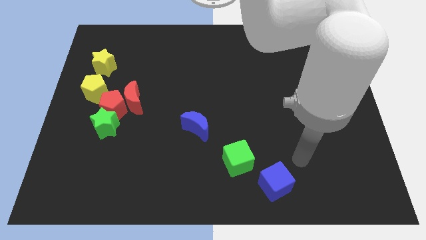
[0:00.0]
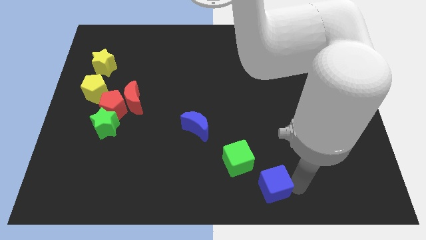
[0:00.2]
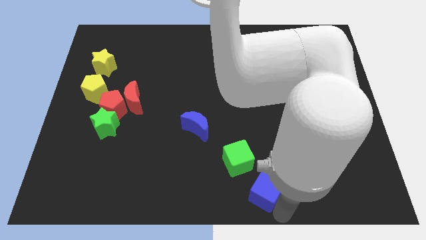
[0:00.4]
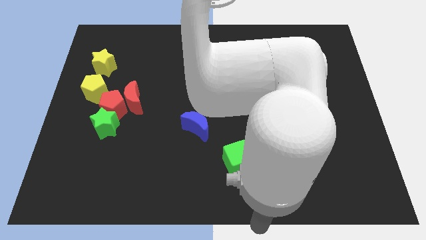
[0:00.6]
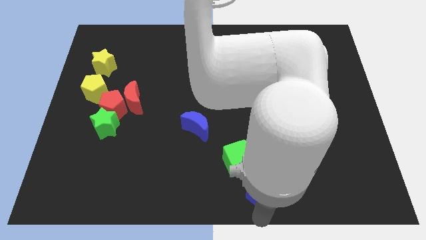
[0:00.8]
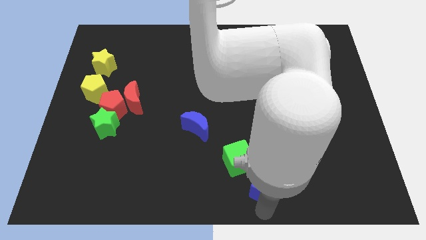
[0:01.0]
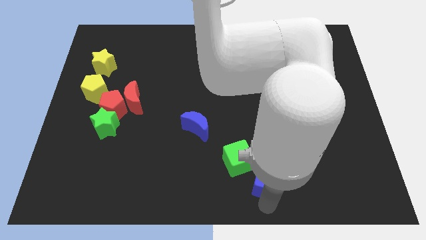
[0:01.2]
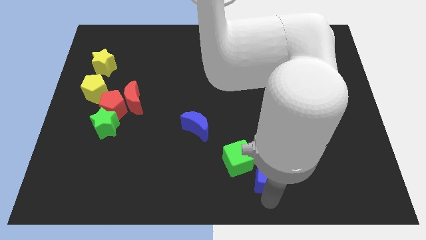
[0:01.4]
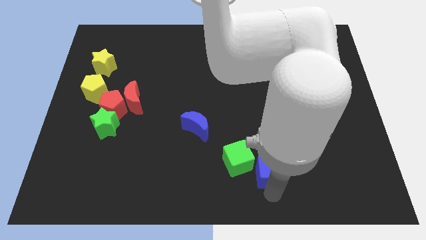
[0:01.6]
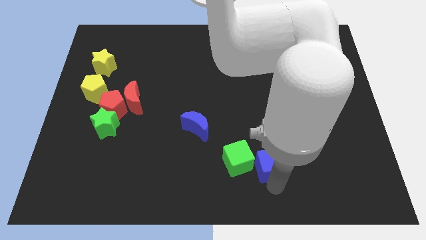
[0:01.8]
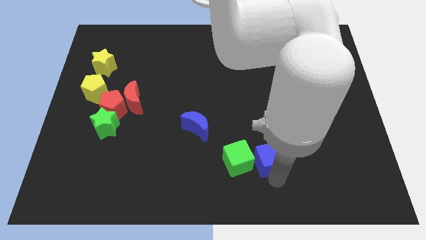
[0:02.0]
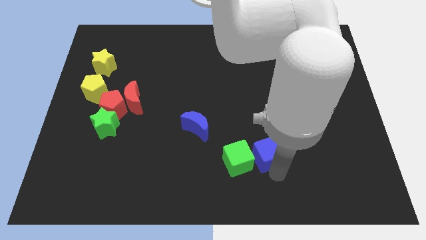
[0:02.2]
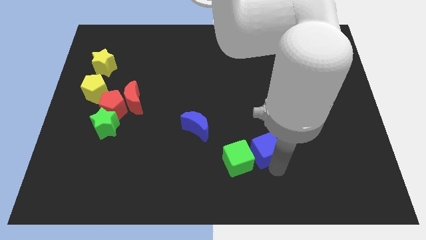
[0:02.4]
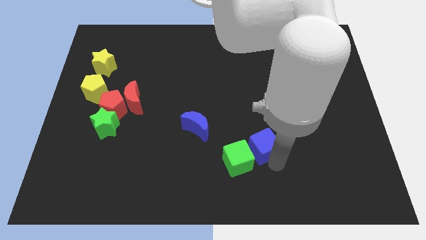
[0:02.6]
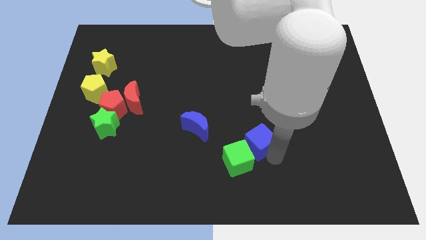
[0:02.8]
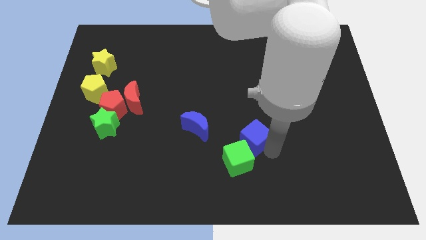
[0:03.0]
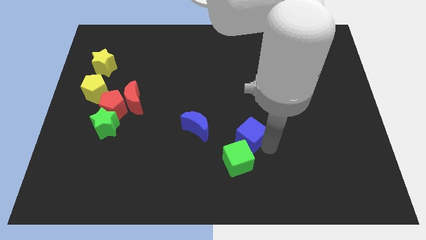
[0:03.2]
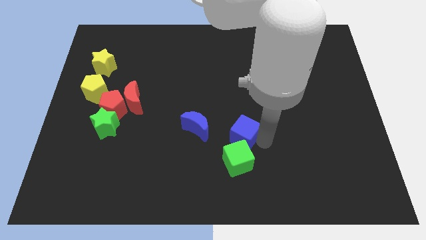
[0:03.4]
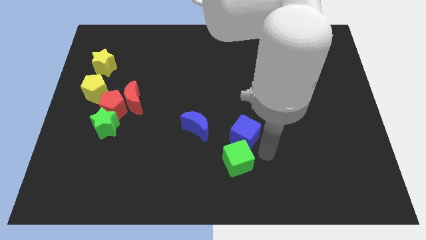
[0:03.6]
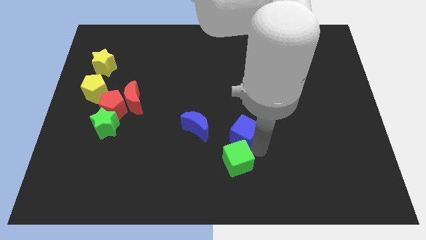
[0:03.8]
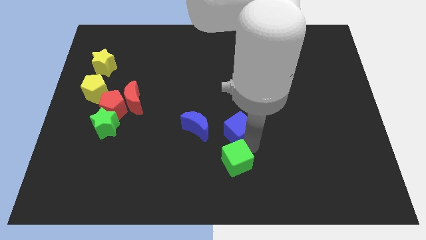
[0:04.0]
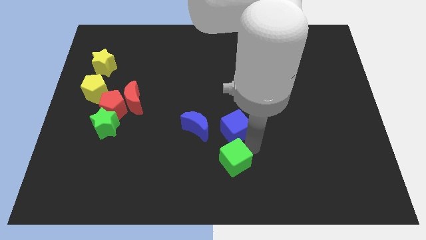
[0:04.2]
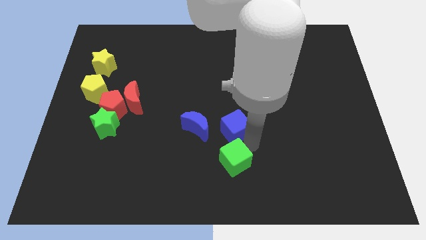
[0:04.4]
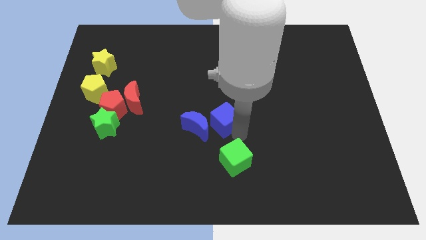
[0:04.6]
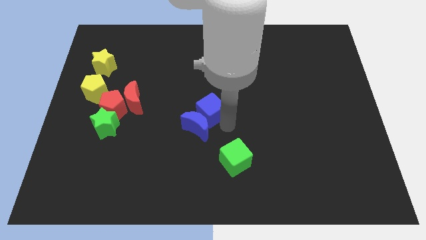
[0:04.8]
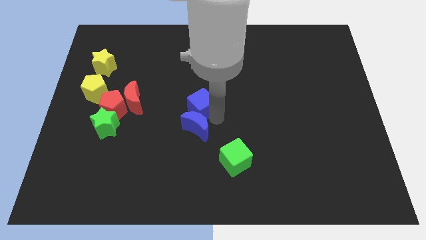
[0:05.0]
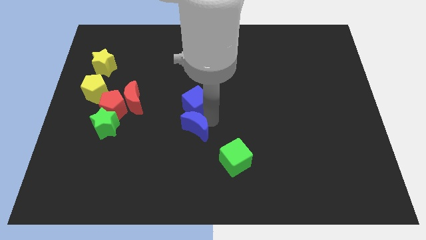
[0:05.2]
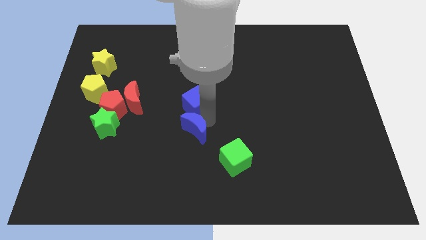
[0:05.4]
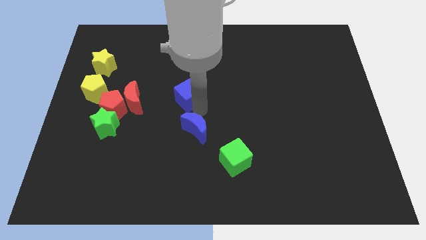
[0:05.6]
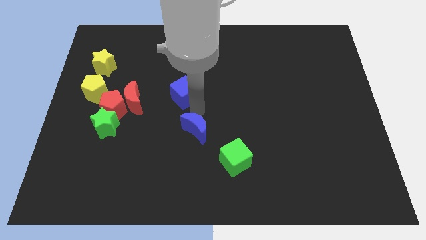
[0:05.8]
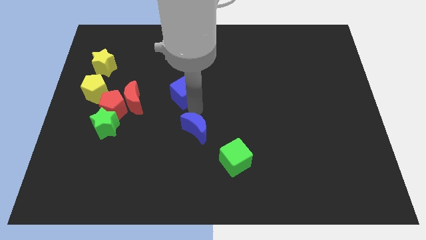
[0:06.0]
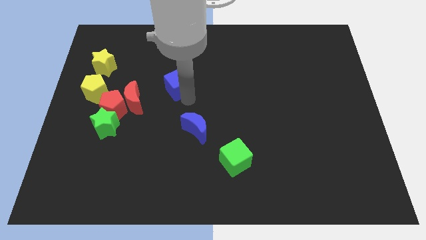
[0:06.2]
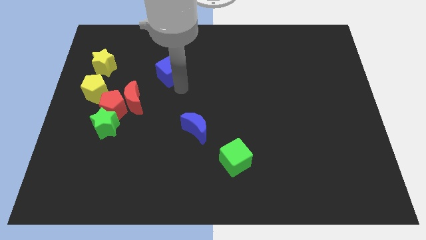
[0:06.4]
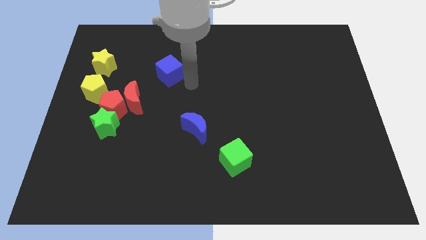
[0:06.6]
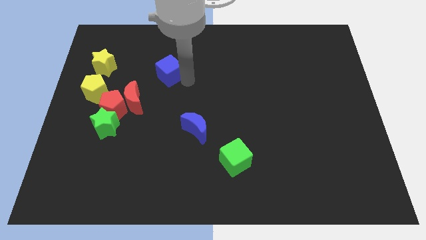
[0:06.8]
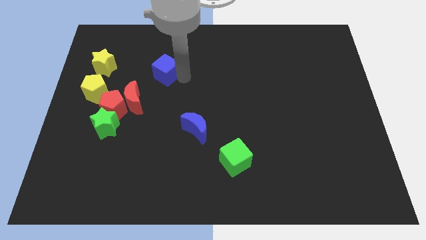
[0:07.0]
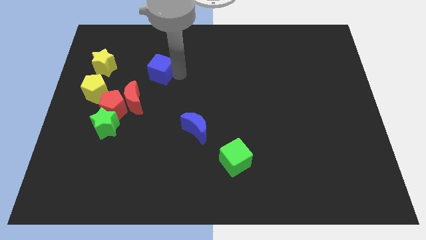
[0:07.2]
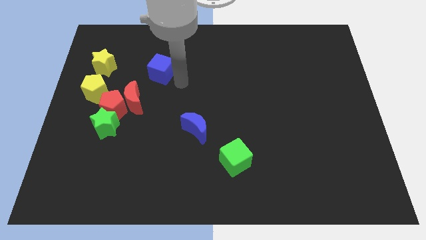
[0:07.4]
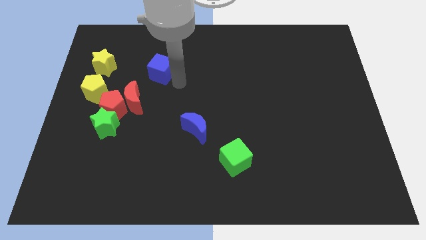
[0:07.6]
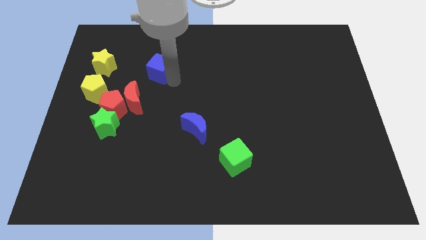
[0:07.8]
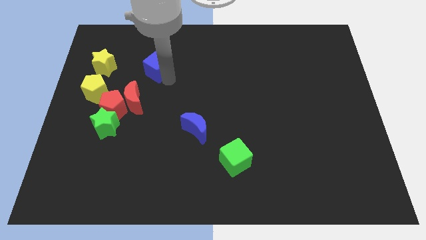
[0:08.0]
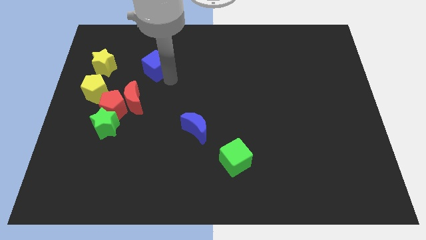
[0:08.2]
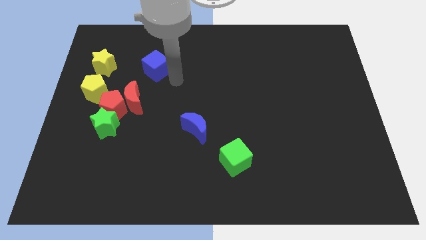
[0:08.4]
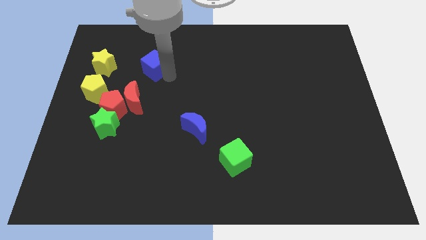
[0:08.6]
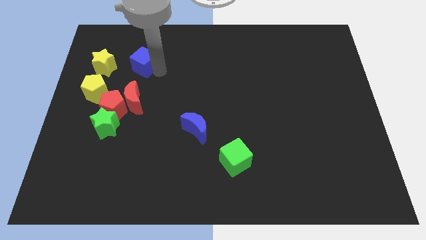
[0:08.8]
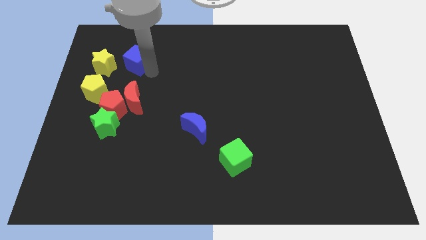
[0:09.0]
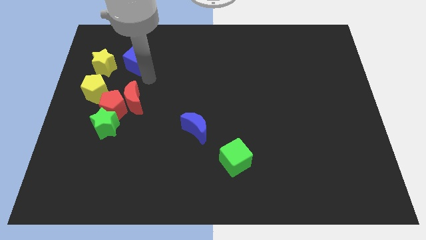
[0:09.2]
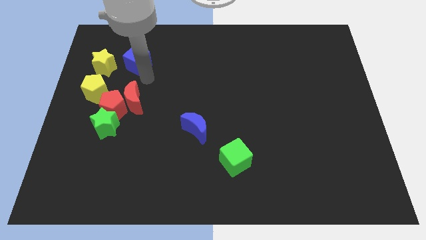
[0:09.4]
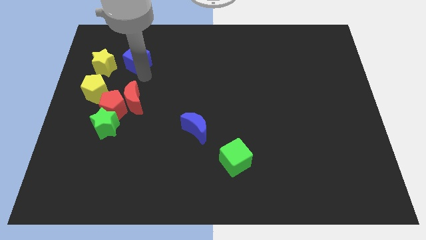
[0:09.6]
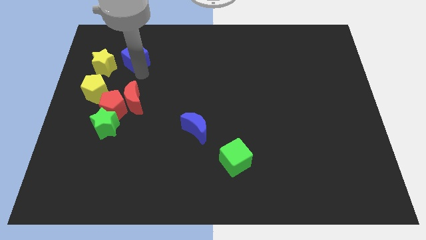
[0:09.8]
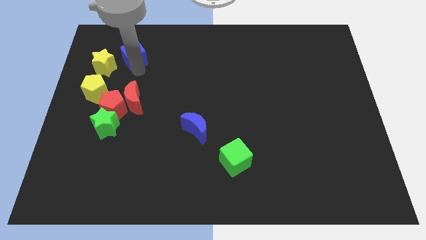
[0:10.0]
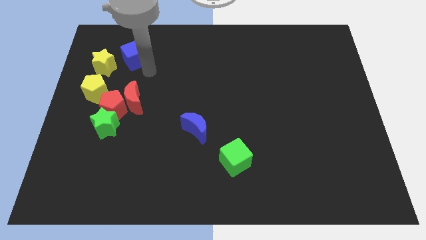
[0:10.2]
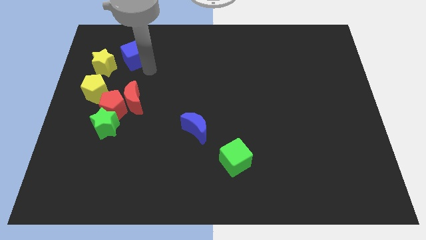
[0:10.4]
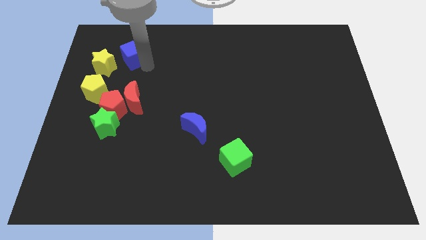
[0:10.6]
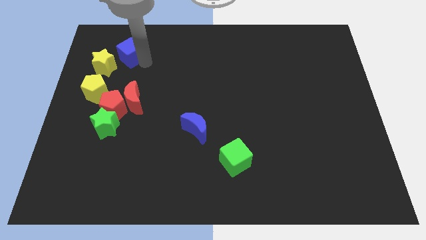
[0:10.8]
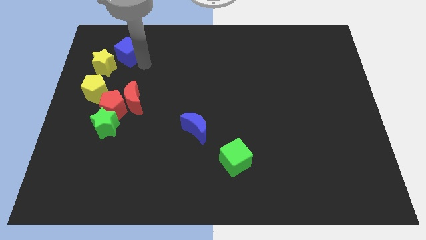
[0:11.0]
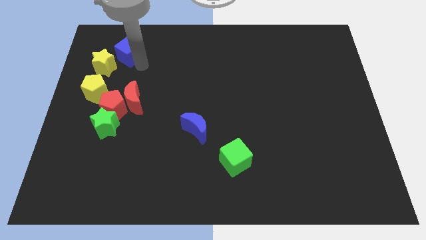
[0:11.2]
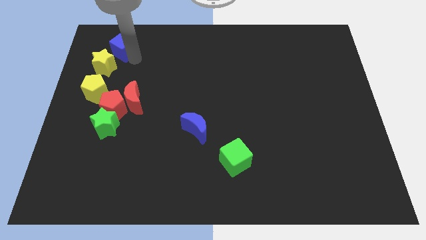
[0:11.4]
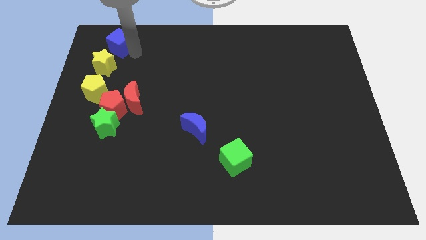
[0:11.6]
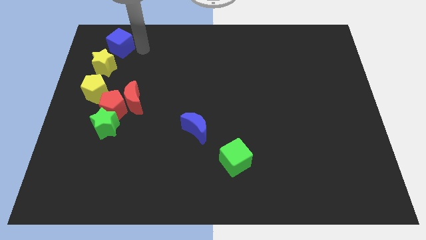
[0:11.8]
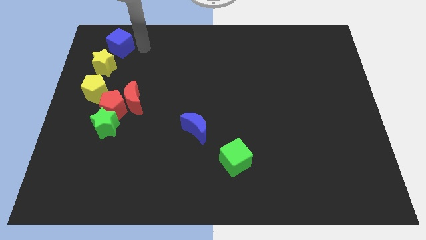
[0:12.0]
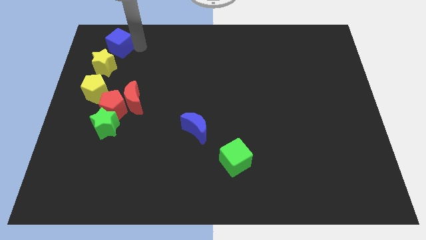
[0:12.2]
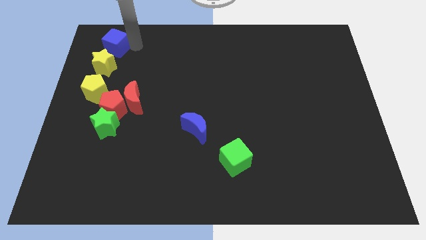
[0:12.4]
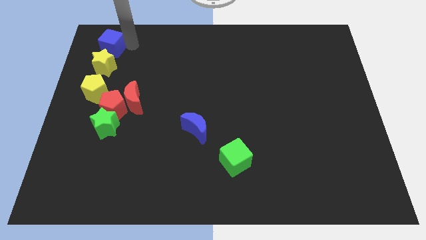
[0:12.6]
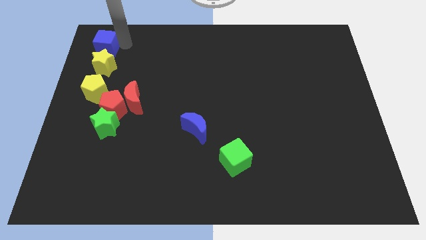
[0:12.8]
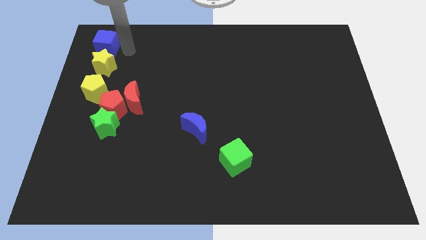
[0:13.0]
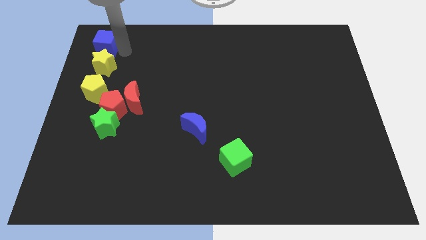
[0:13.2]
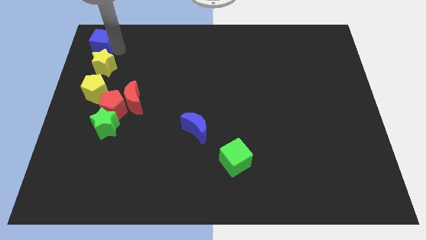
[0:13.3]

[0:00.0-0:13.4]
slide the blue cube to the upper left corner
